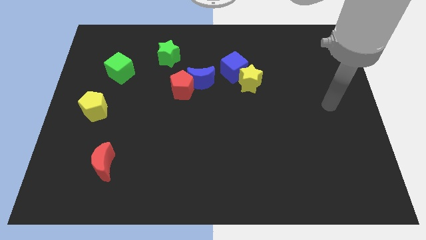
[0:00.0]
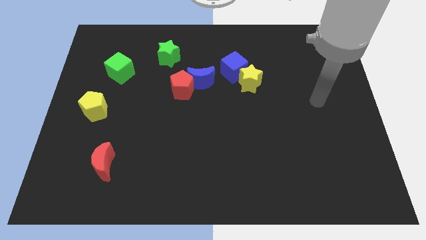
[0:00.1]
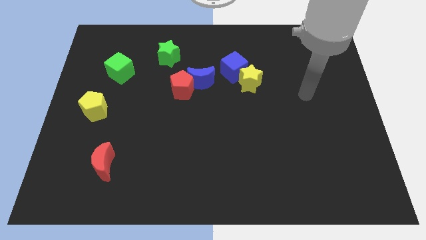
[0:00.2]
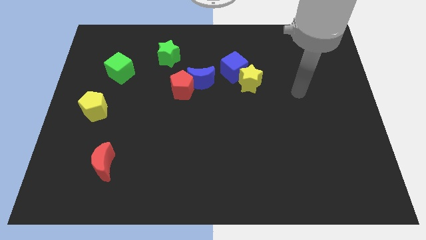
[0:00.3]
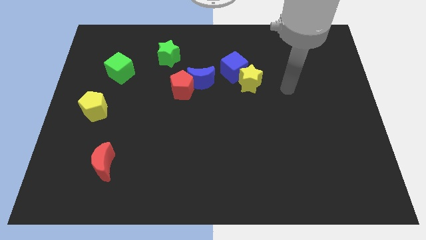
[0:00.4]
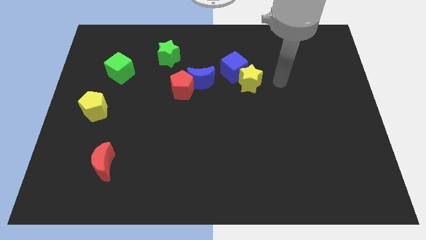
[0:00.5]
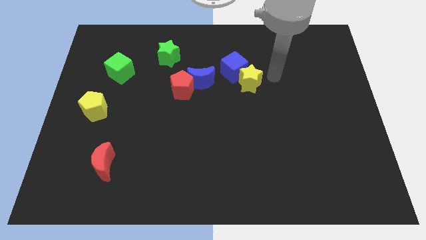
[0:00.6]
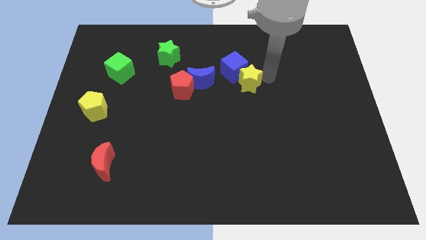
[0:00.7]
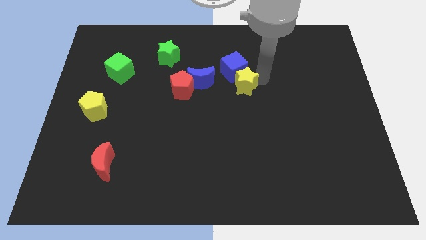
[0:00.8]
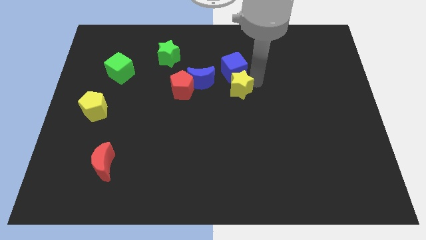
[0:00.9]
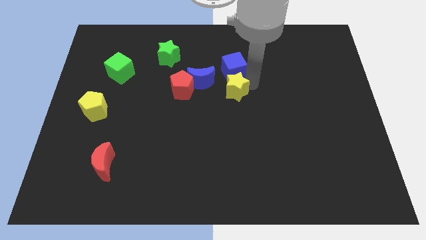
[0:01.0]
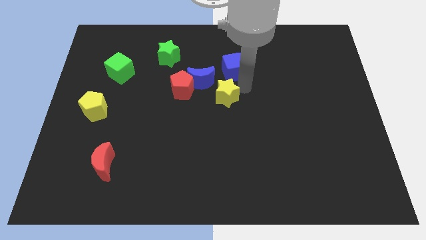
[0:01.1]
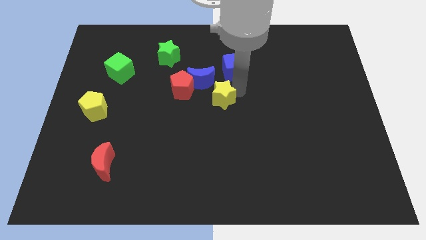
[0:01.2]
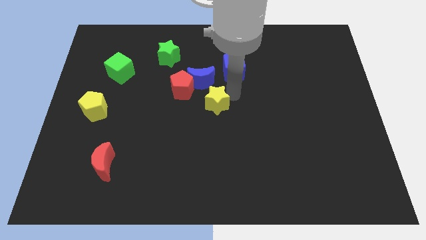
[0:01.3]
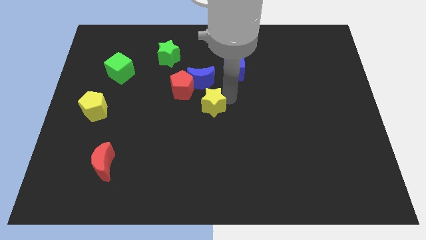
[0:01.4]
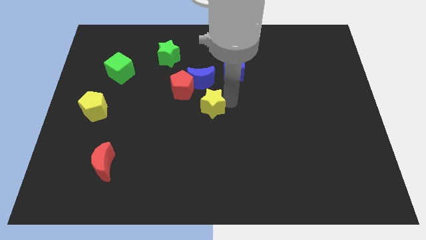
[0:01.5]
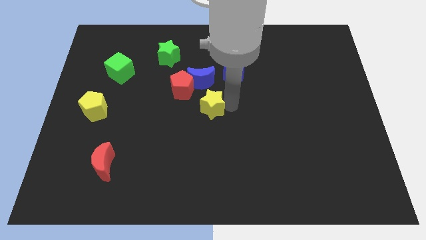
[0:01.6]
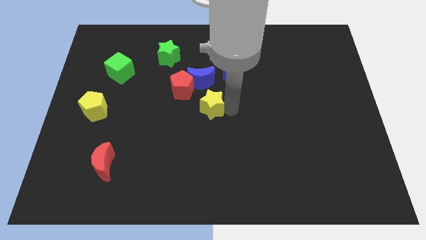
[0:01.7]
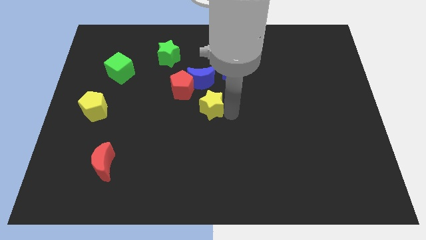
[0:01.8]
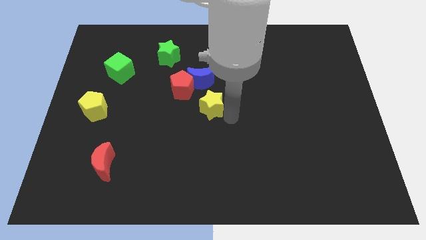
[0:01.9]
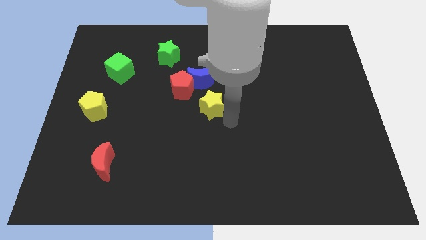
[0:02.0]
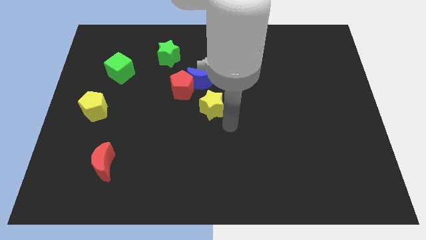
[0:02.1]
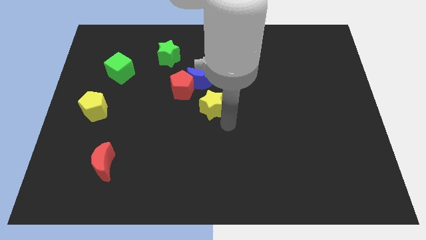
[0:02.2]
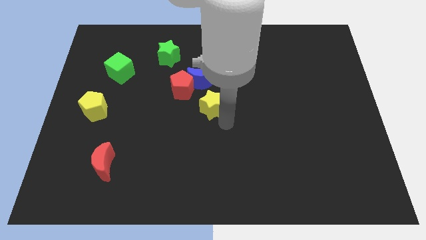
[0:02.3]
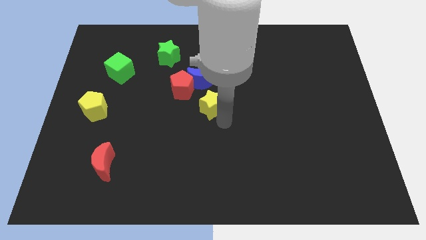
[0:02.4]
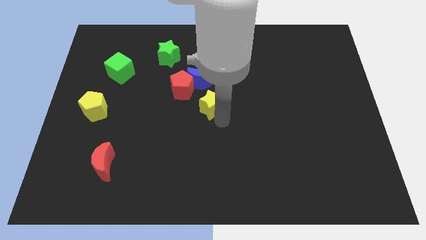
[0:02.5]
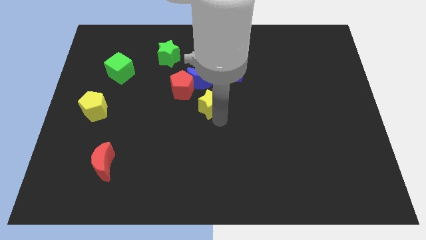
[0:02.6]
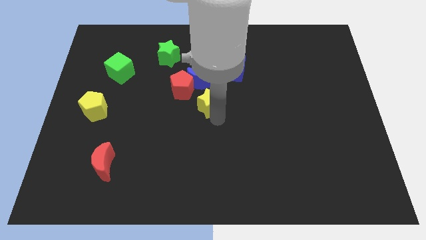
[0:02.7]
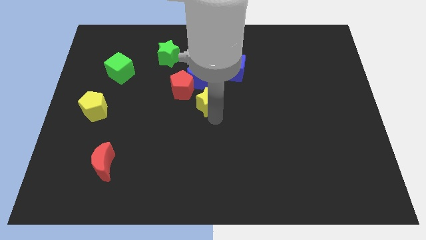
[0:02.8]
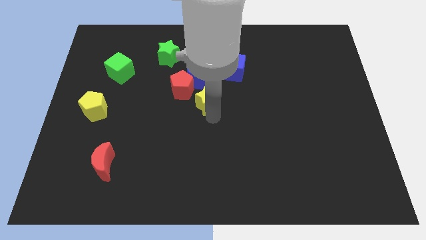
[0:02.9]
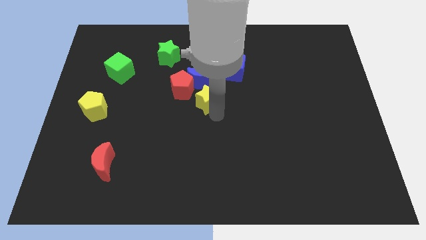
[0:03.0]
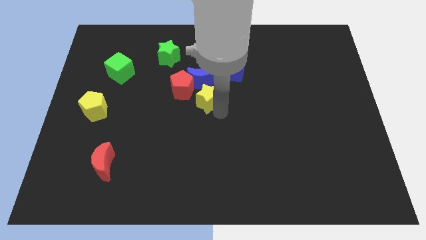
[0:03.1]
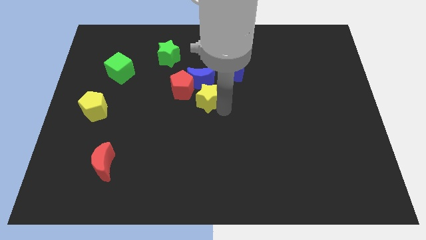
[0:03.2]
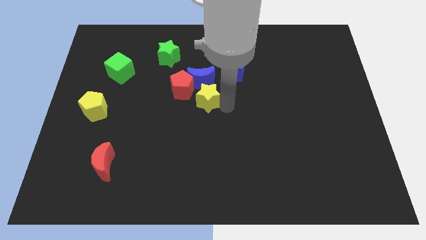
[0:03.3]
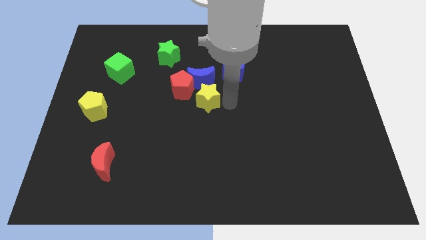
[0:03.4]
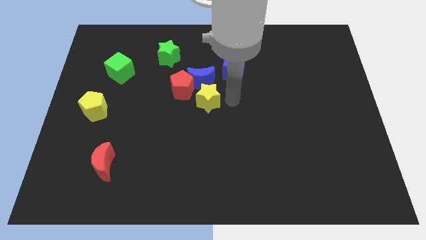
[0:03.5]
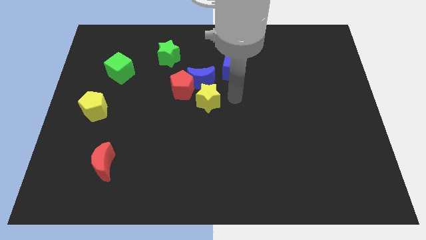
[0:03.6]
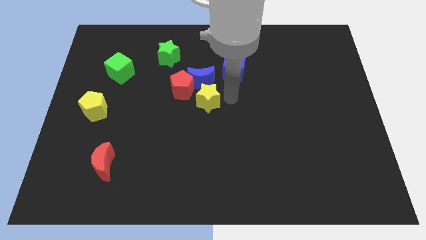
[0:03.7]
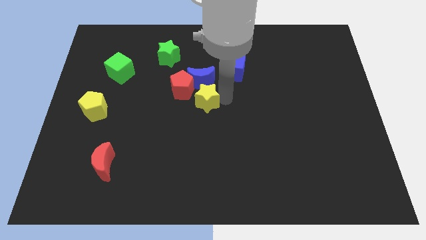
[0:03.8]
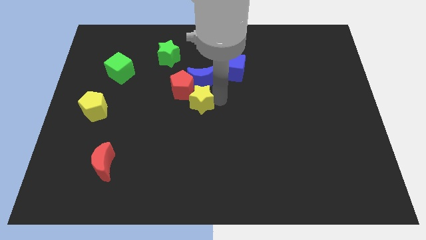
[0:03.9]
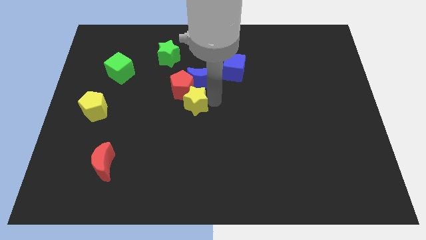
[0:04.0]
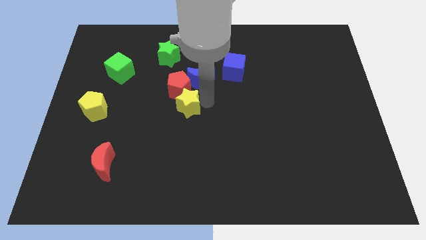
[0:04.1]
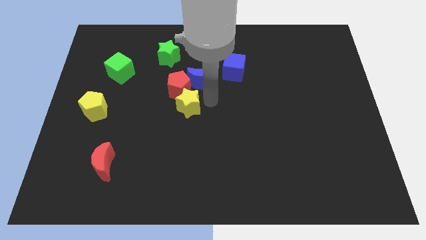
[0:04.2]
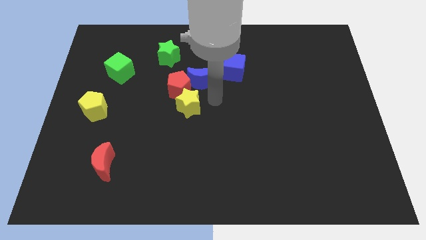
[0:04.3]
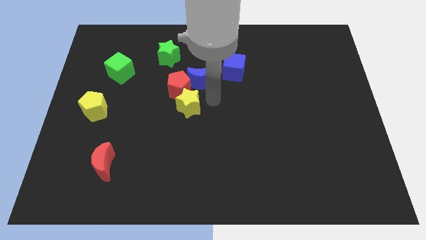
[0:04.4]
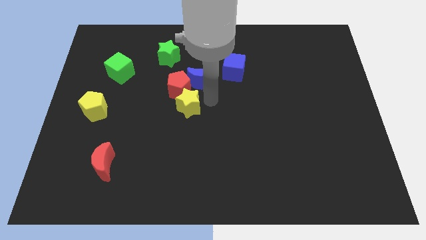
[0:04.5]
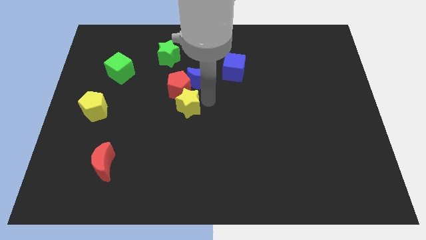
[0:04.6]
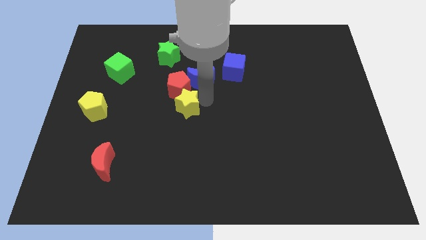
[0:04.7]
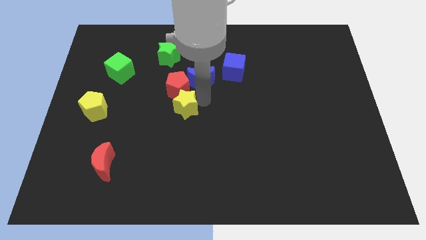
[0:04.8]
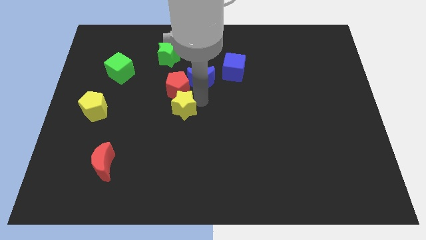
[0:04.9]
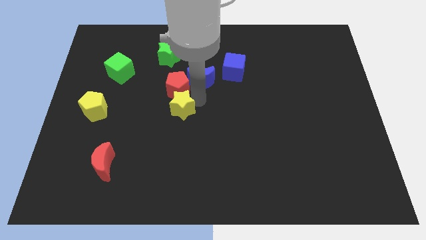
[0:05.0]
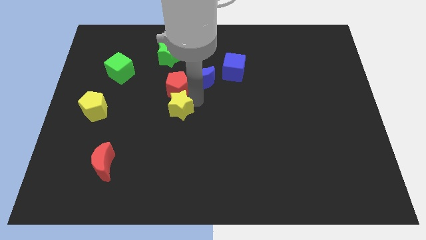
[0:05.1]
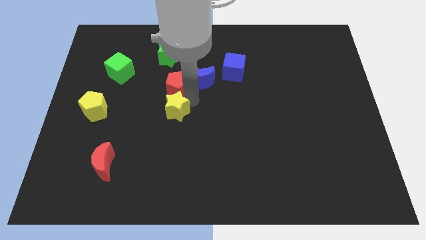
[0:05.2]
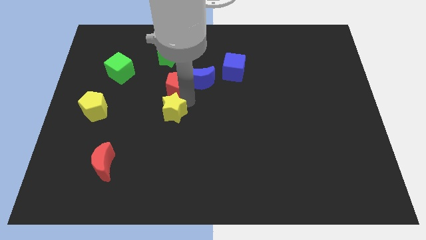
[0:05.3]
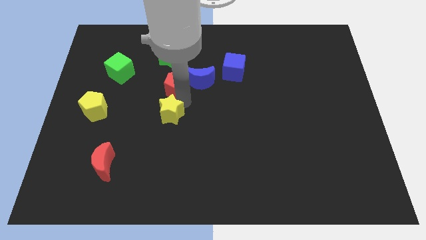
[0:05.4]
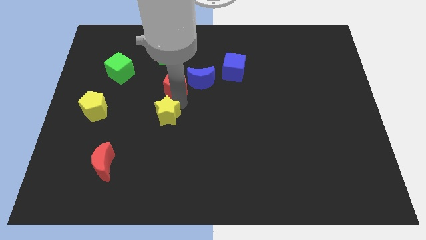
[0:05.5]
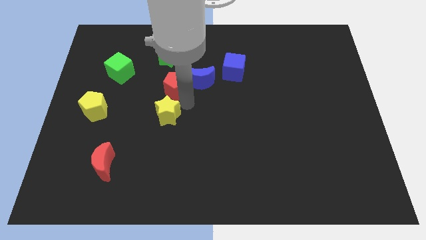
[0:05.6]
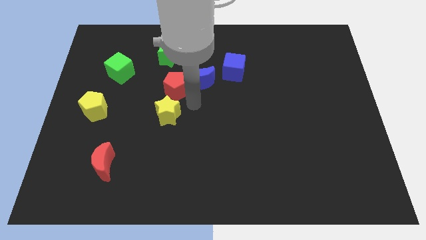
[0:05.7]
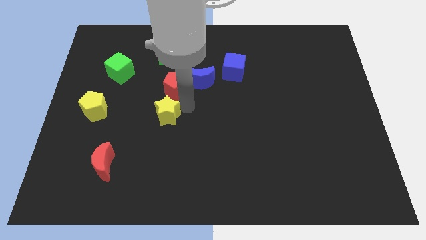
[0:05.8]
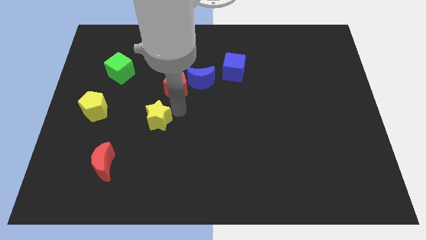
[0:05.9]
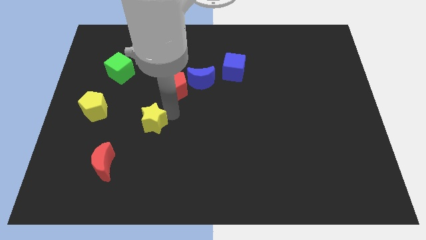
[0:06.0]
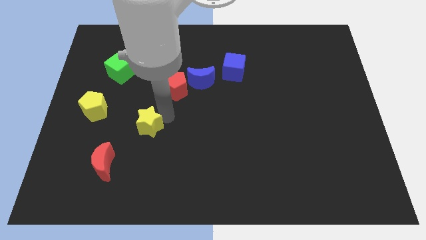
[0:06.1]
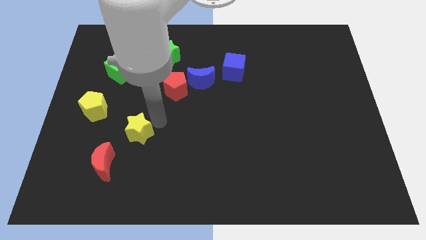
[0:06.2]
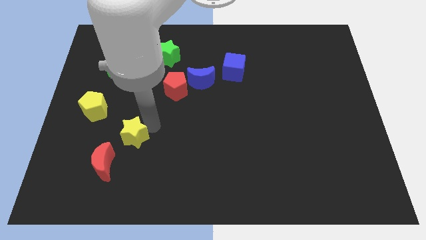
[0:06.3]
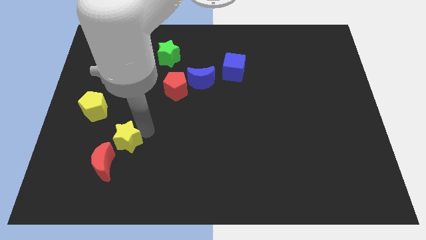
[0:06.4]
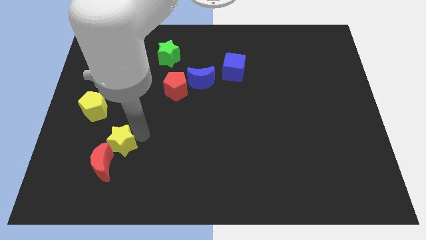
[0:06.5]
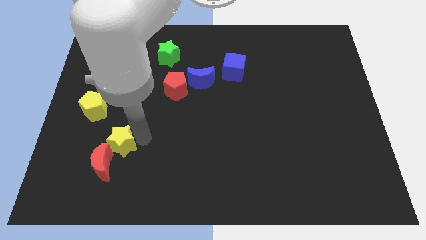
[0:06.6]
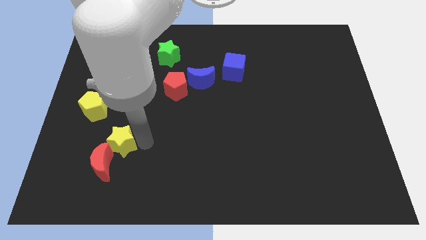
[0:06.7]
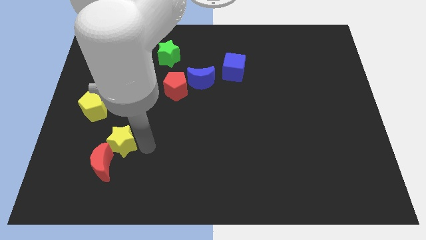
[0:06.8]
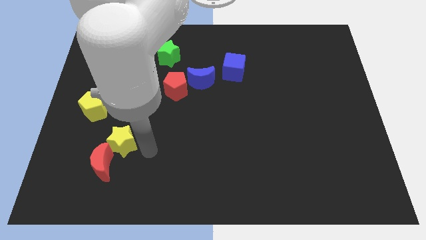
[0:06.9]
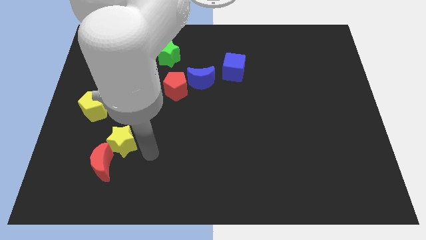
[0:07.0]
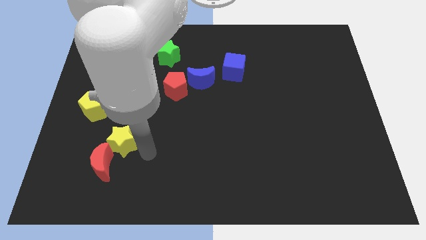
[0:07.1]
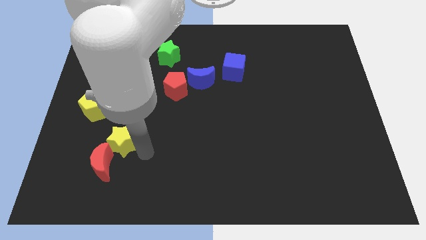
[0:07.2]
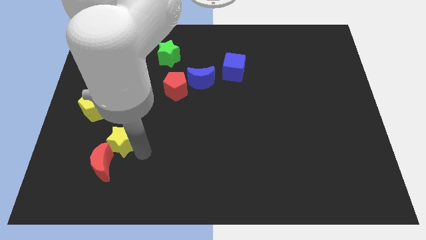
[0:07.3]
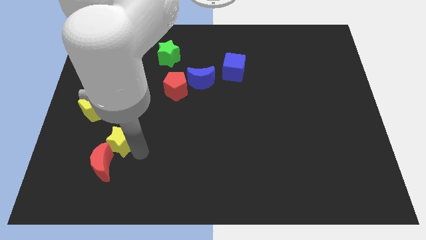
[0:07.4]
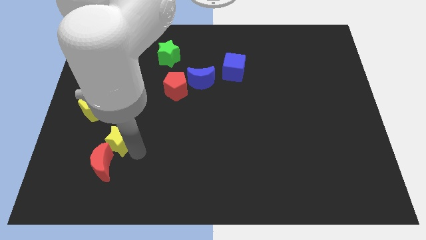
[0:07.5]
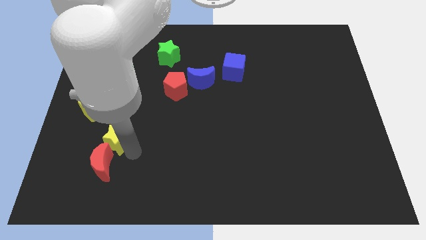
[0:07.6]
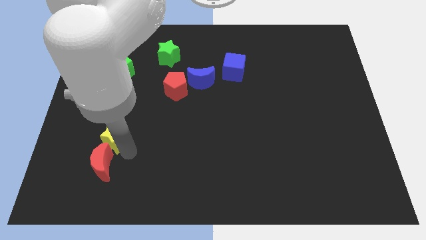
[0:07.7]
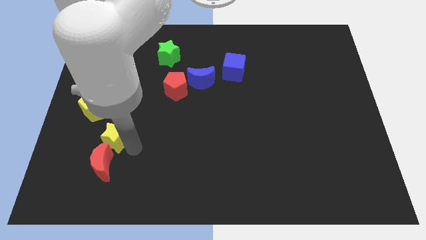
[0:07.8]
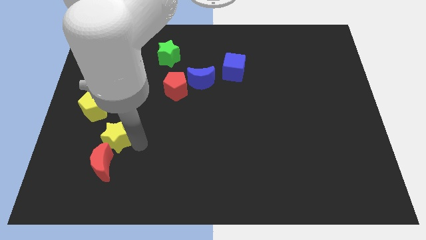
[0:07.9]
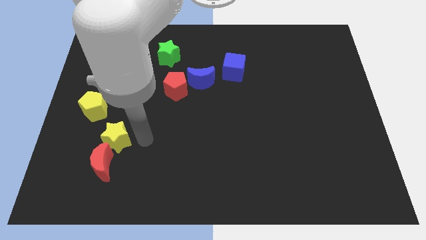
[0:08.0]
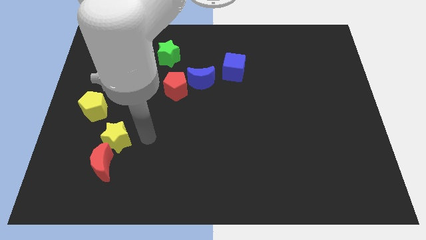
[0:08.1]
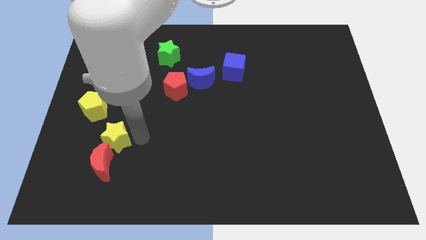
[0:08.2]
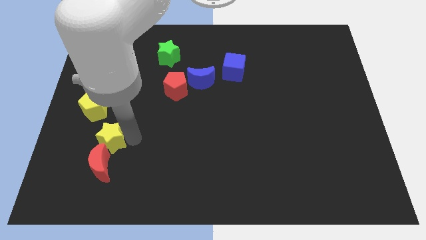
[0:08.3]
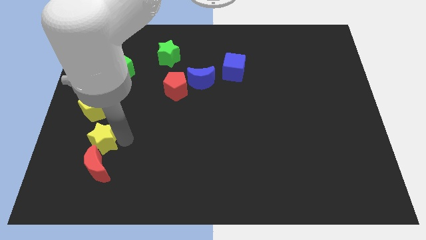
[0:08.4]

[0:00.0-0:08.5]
move the yellow star to the top left side of the red moon
